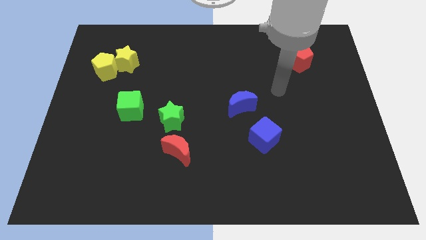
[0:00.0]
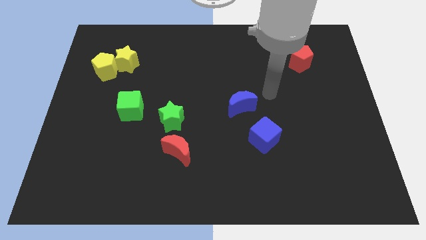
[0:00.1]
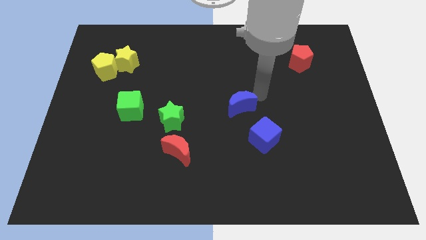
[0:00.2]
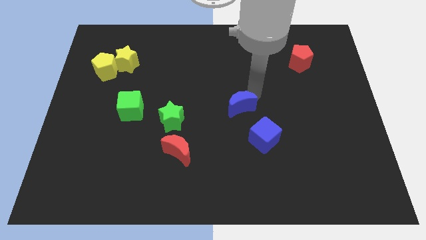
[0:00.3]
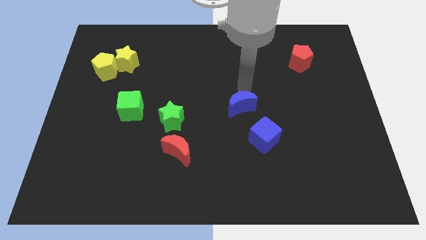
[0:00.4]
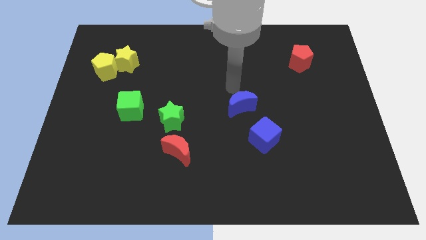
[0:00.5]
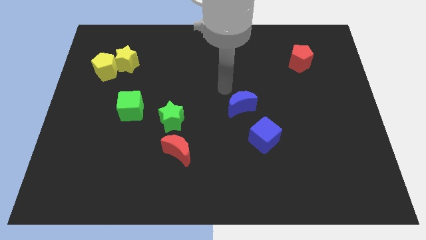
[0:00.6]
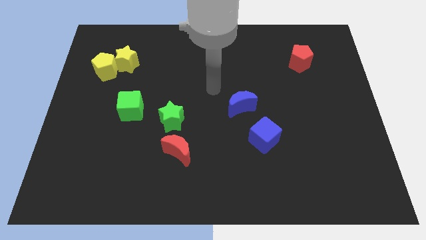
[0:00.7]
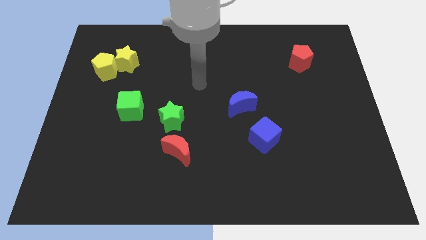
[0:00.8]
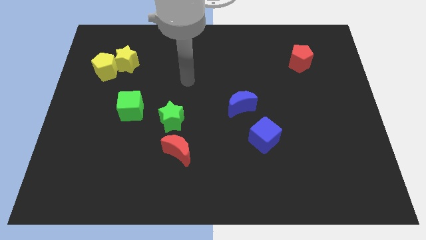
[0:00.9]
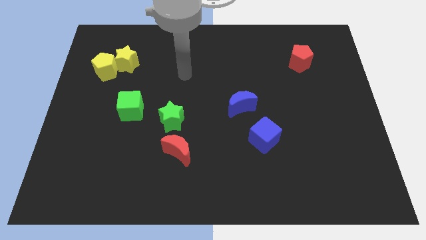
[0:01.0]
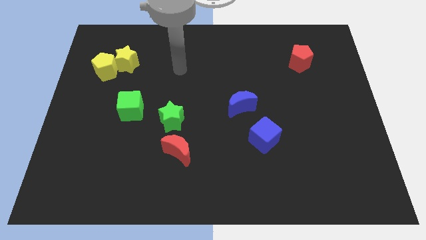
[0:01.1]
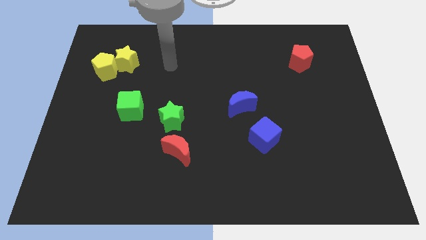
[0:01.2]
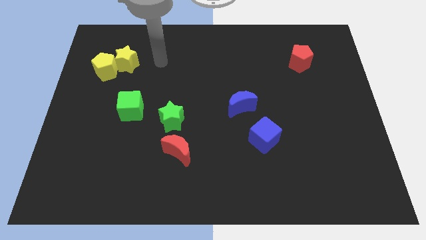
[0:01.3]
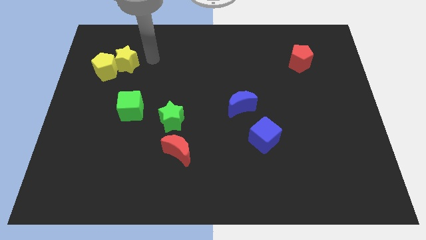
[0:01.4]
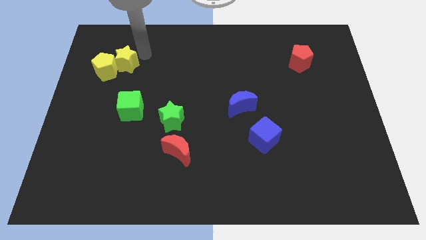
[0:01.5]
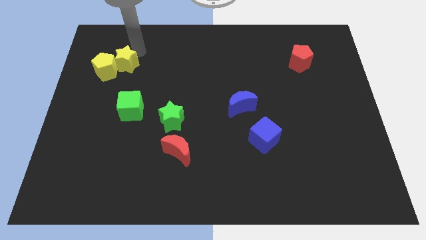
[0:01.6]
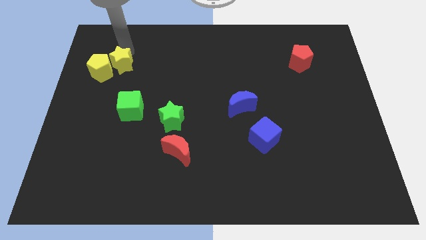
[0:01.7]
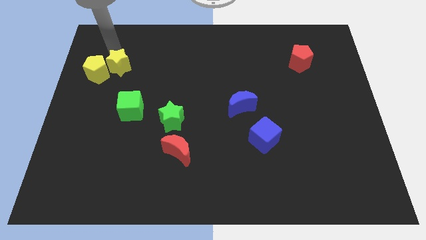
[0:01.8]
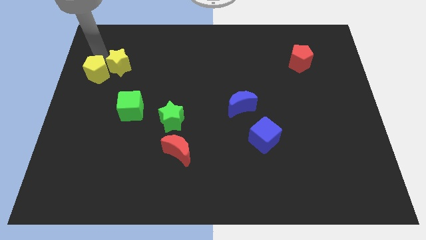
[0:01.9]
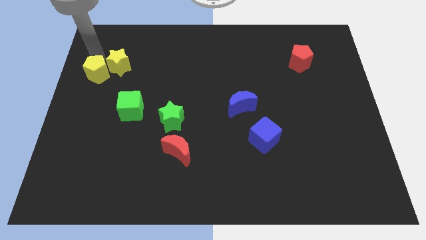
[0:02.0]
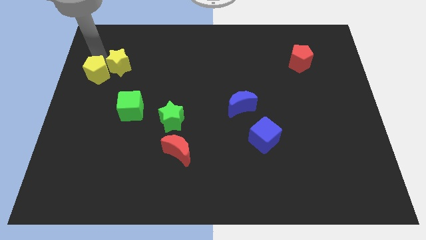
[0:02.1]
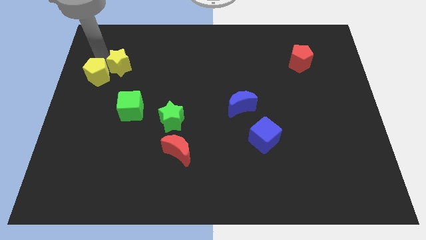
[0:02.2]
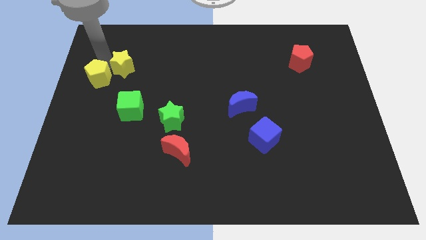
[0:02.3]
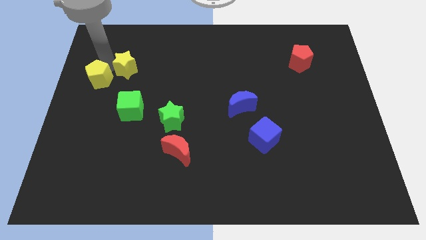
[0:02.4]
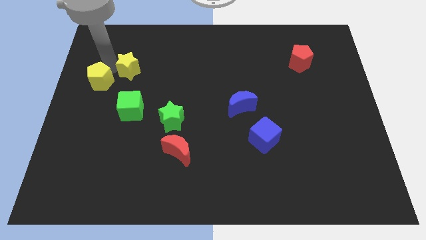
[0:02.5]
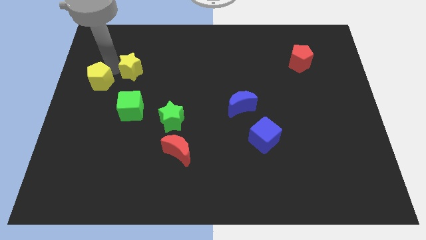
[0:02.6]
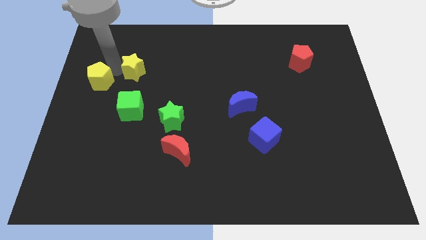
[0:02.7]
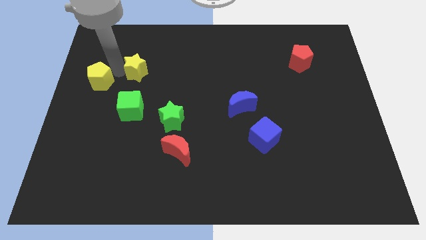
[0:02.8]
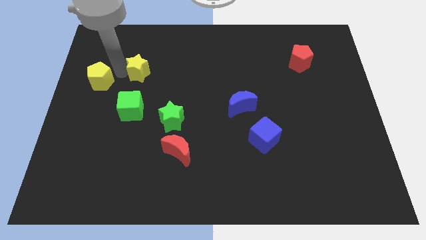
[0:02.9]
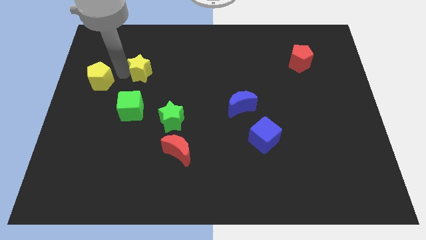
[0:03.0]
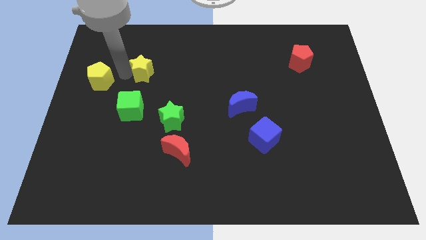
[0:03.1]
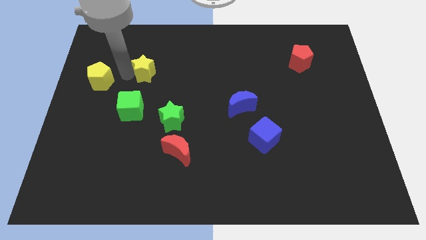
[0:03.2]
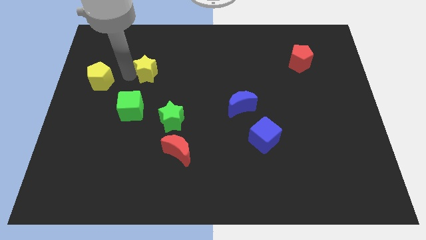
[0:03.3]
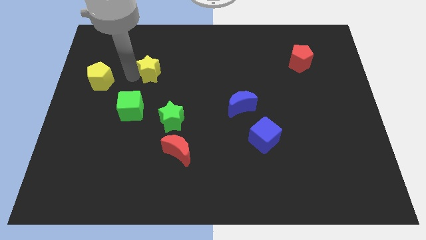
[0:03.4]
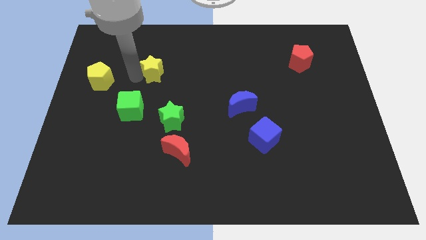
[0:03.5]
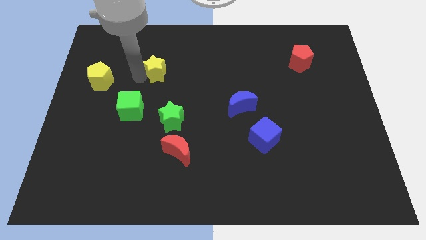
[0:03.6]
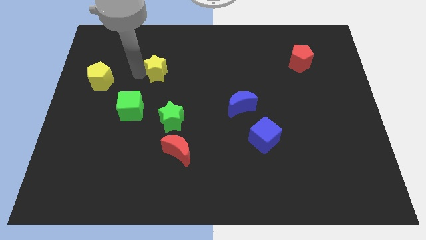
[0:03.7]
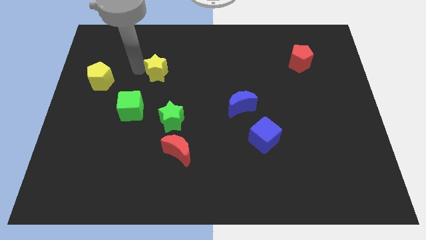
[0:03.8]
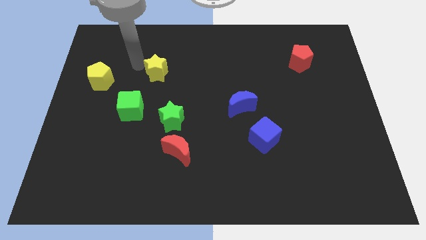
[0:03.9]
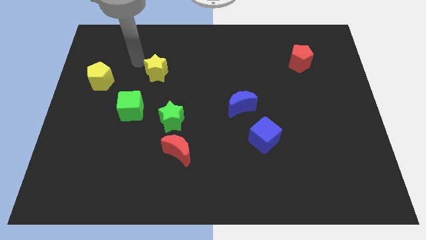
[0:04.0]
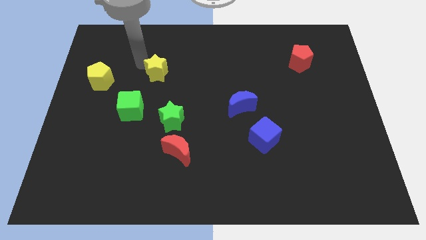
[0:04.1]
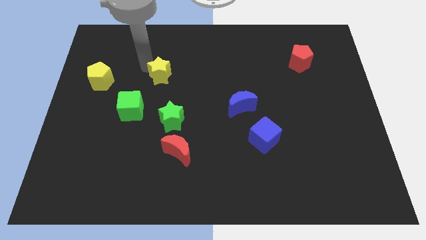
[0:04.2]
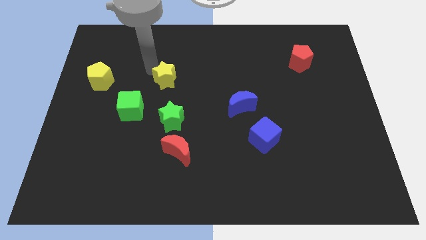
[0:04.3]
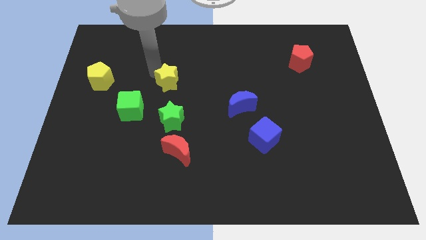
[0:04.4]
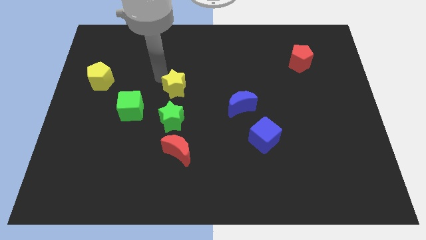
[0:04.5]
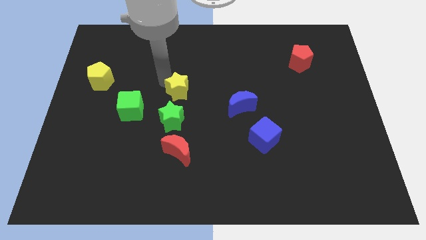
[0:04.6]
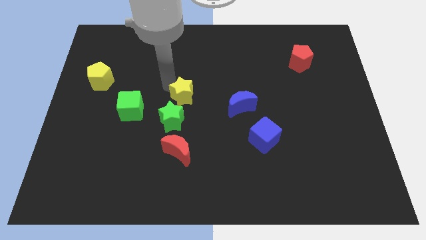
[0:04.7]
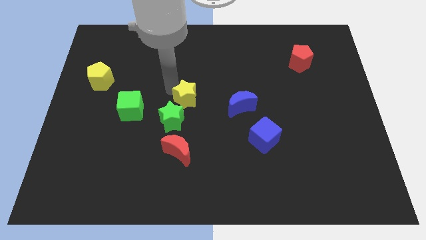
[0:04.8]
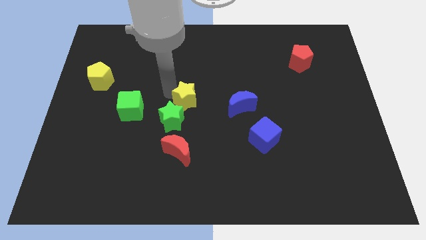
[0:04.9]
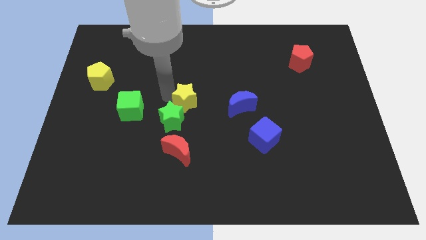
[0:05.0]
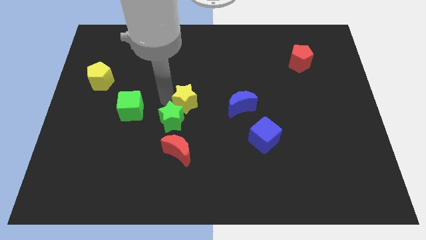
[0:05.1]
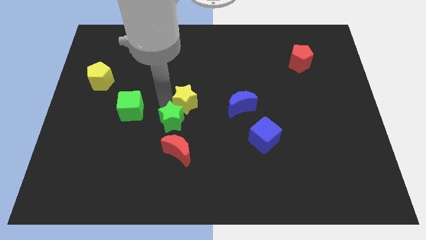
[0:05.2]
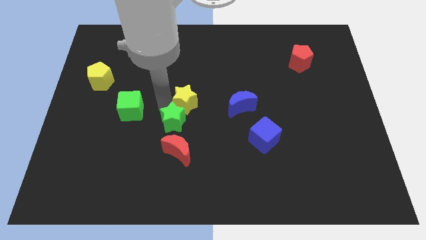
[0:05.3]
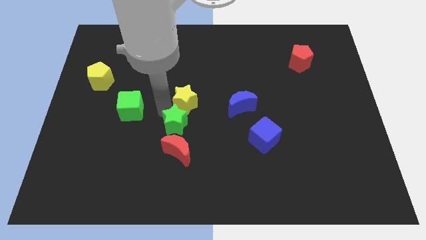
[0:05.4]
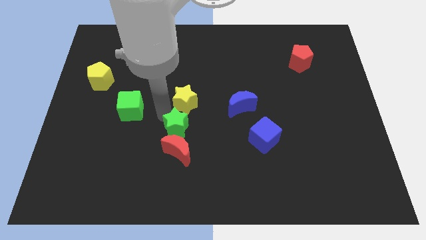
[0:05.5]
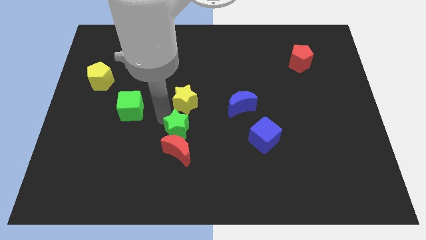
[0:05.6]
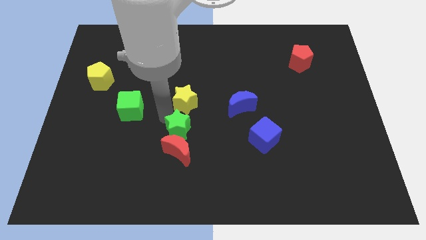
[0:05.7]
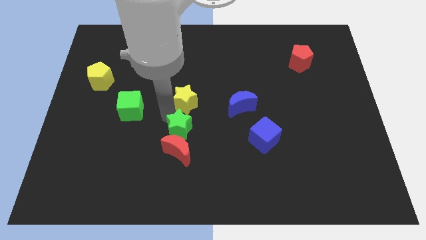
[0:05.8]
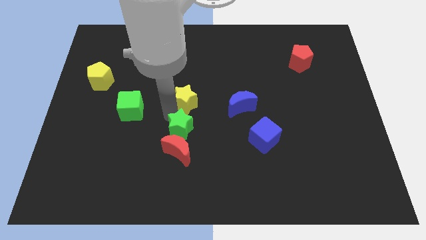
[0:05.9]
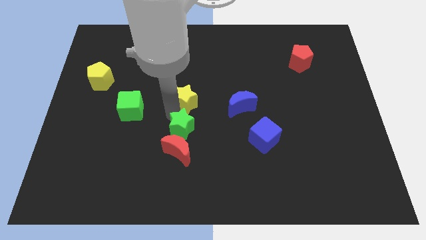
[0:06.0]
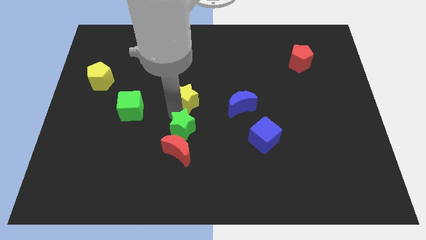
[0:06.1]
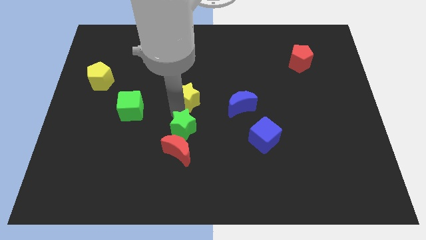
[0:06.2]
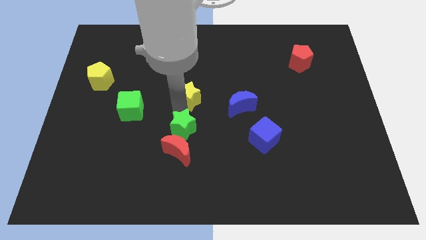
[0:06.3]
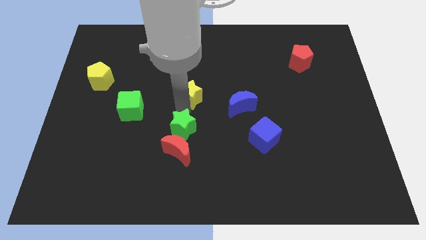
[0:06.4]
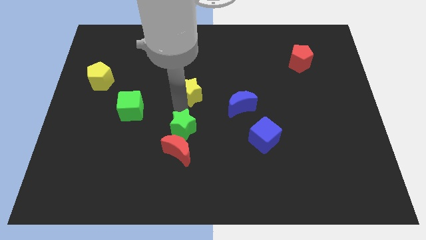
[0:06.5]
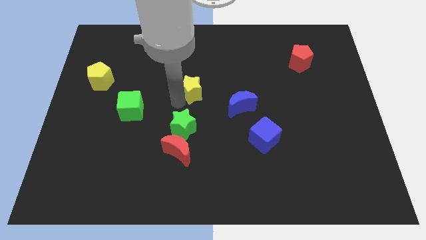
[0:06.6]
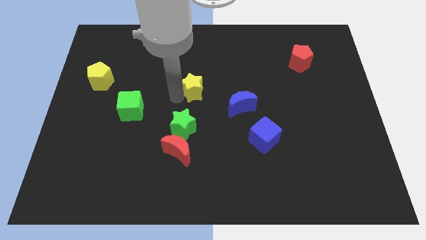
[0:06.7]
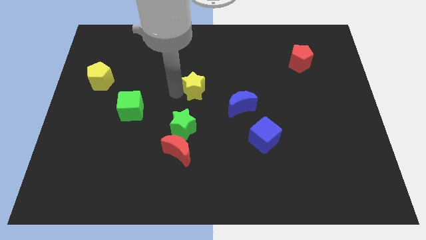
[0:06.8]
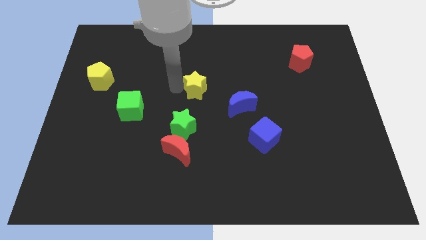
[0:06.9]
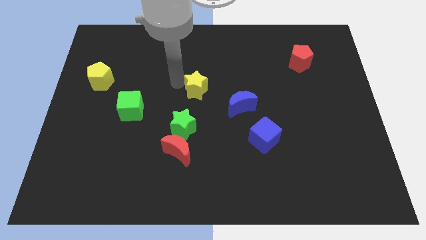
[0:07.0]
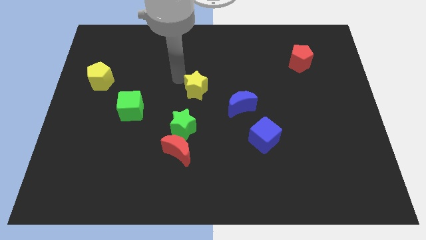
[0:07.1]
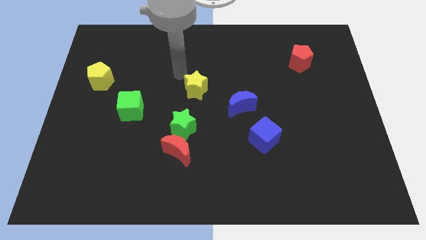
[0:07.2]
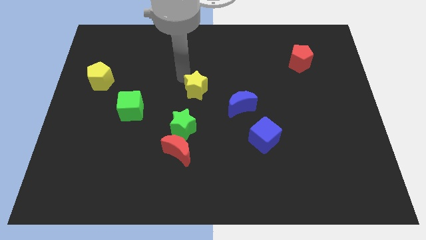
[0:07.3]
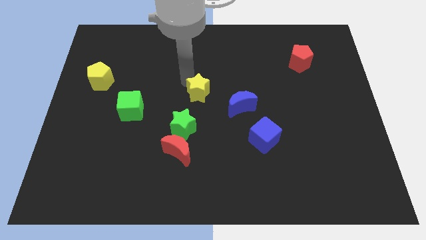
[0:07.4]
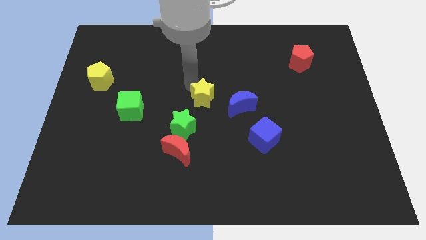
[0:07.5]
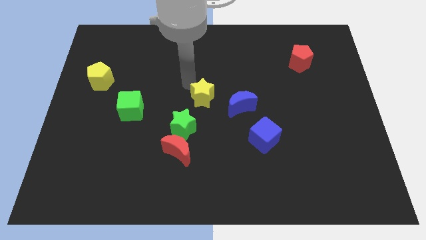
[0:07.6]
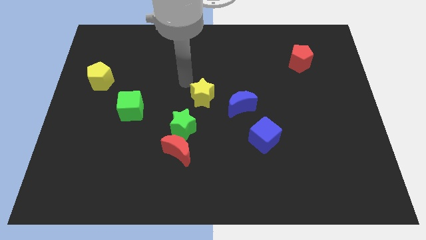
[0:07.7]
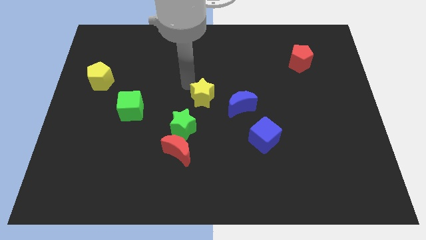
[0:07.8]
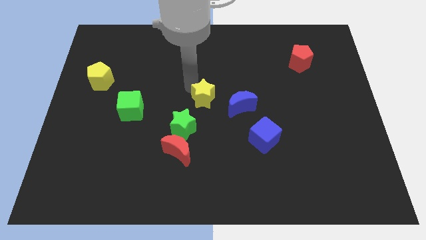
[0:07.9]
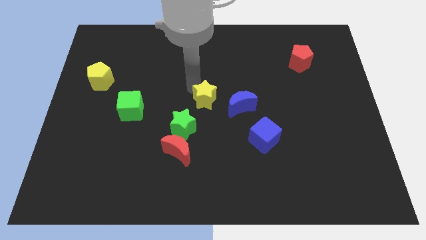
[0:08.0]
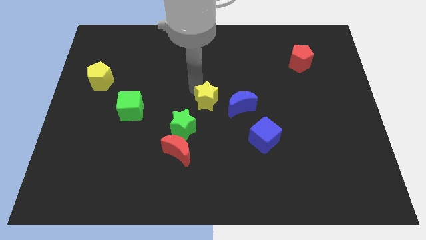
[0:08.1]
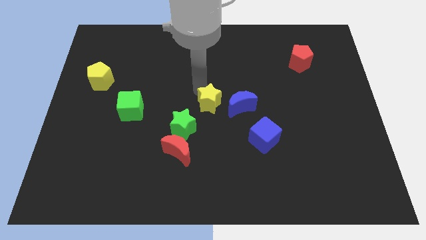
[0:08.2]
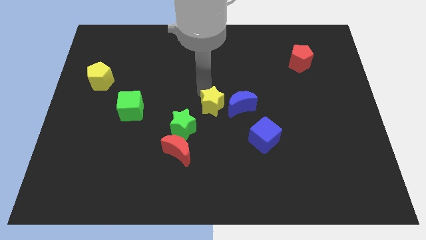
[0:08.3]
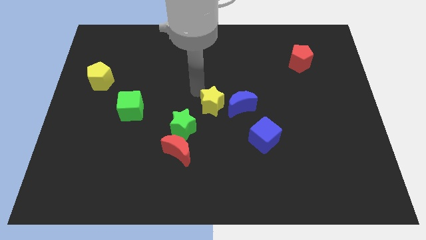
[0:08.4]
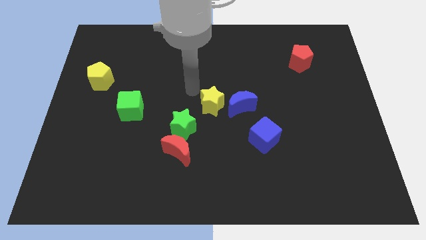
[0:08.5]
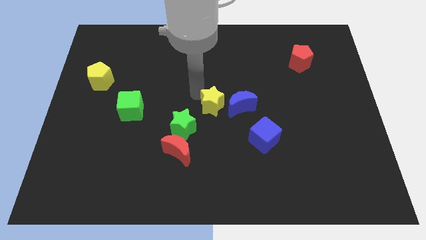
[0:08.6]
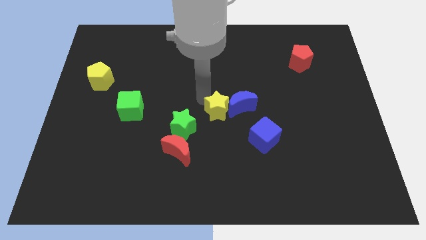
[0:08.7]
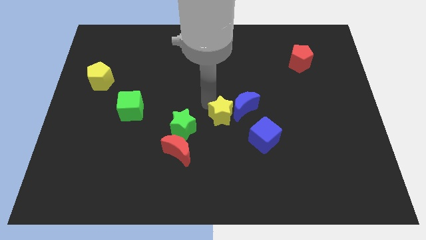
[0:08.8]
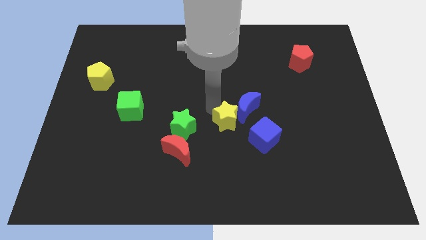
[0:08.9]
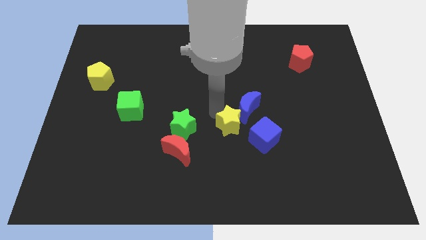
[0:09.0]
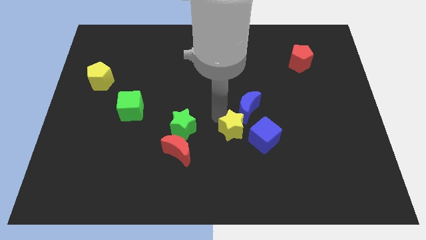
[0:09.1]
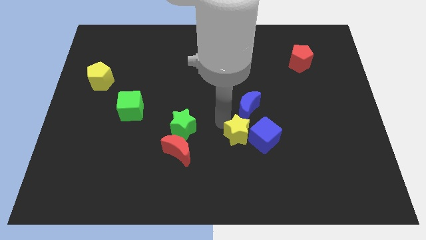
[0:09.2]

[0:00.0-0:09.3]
push the yellow star towards the blue cube
